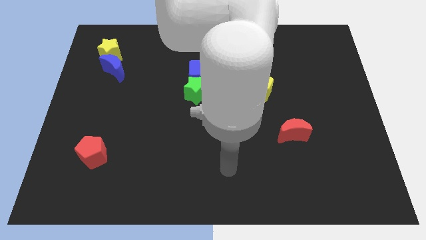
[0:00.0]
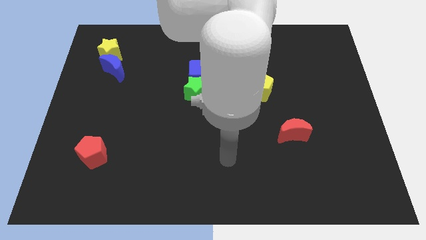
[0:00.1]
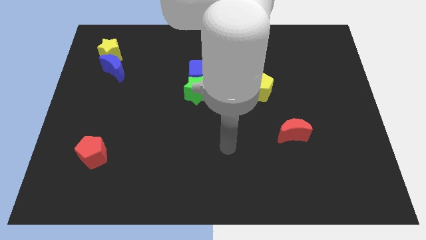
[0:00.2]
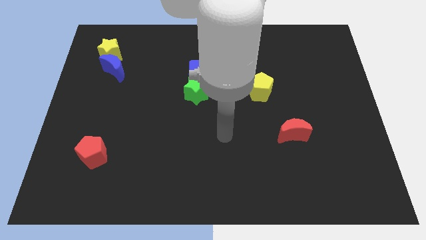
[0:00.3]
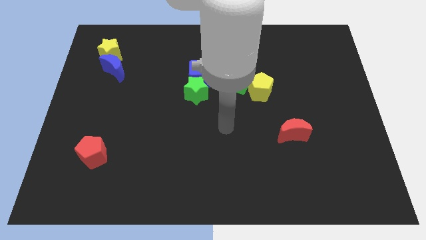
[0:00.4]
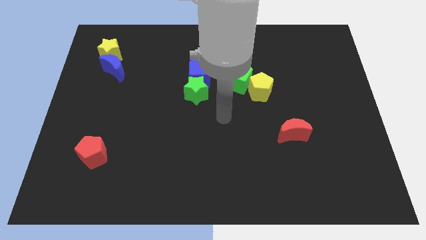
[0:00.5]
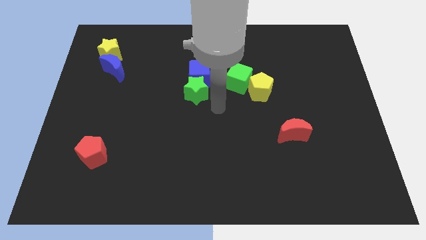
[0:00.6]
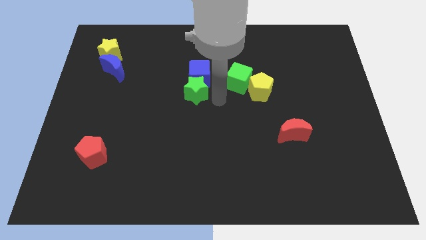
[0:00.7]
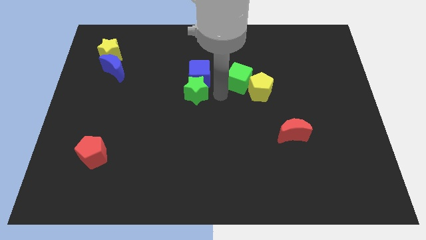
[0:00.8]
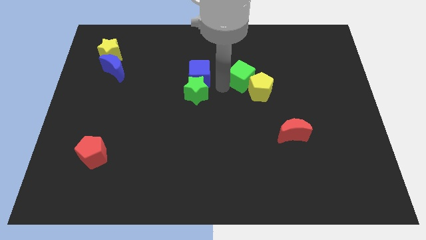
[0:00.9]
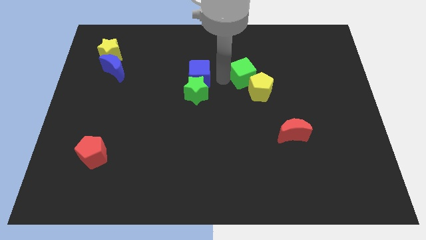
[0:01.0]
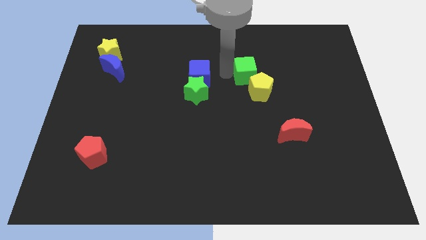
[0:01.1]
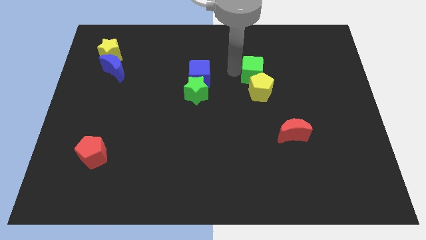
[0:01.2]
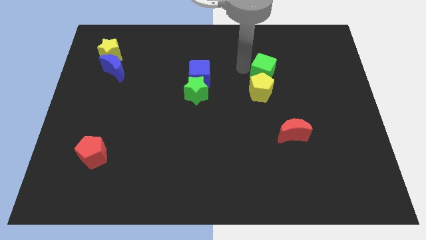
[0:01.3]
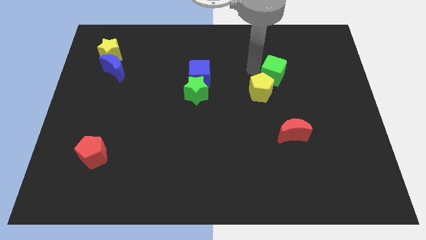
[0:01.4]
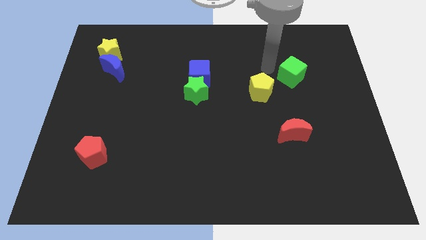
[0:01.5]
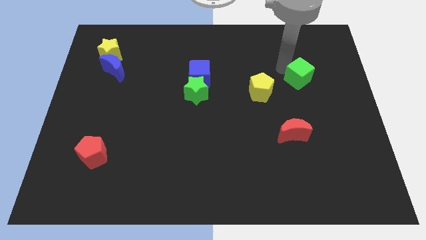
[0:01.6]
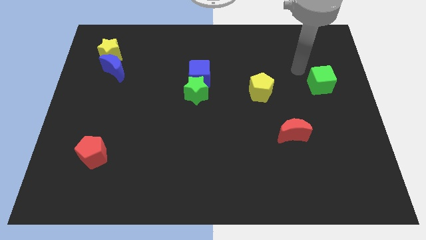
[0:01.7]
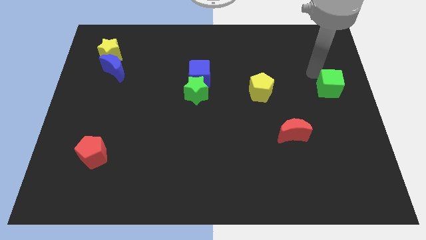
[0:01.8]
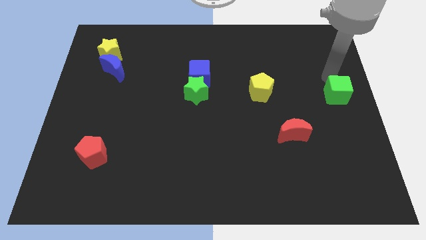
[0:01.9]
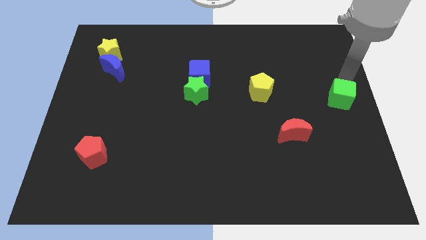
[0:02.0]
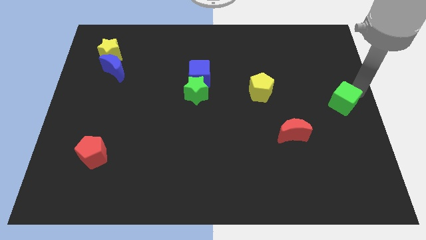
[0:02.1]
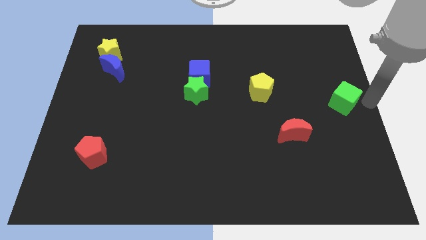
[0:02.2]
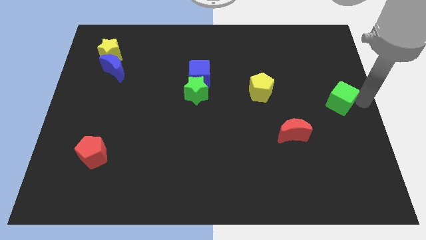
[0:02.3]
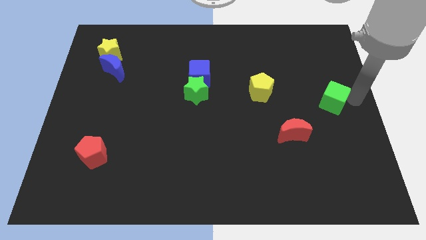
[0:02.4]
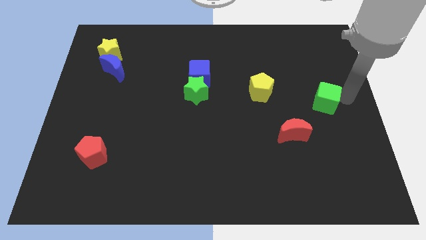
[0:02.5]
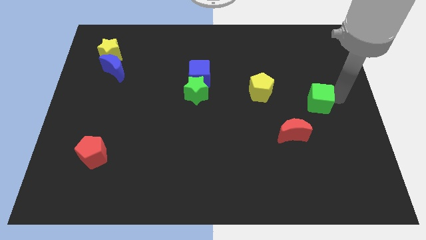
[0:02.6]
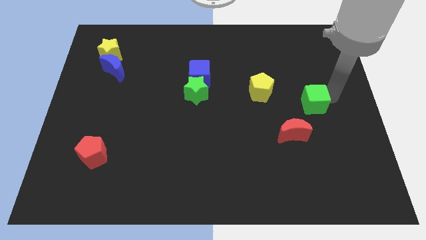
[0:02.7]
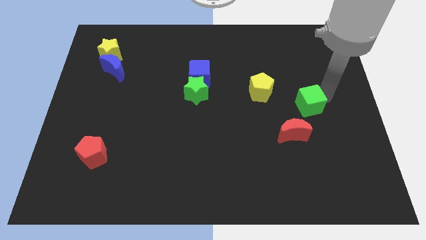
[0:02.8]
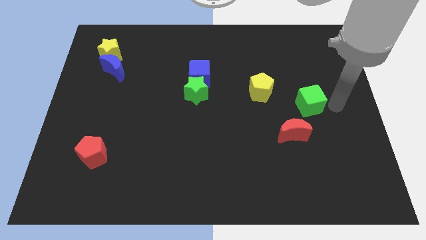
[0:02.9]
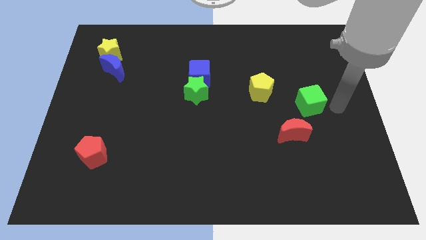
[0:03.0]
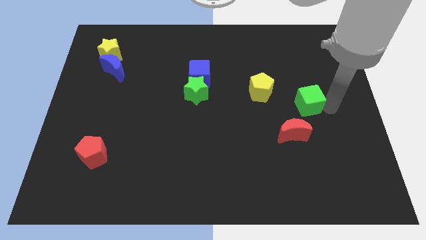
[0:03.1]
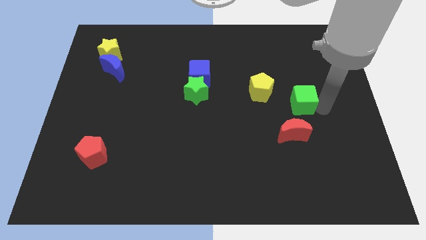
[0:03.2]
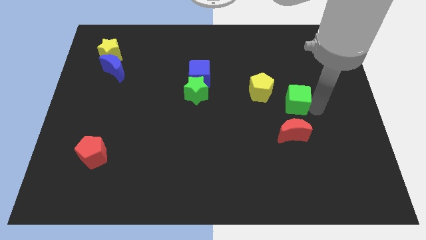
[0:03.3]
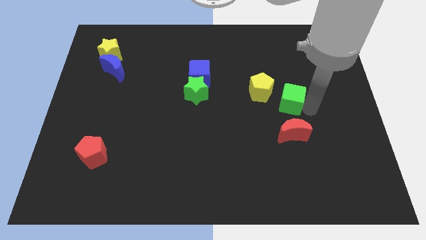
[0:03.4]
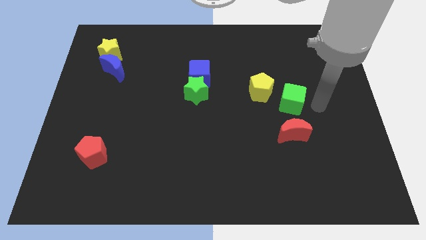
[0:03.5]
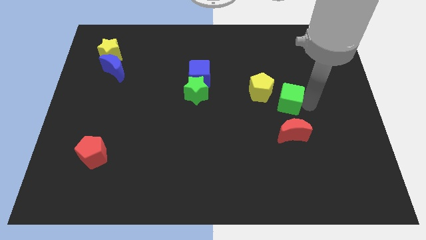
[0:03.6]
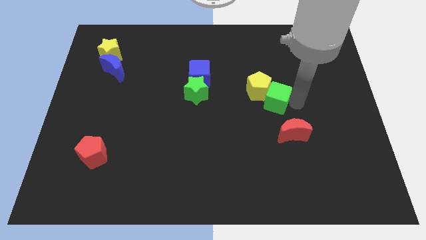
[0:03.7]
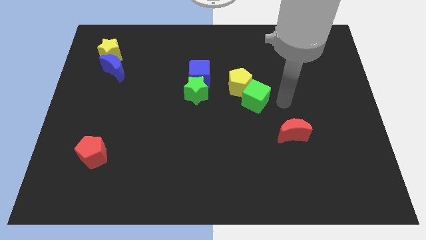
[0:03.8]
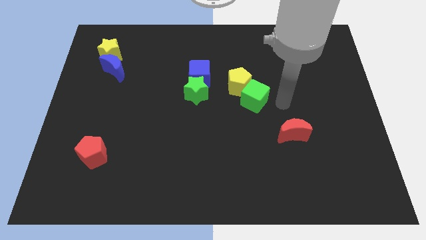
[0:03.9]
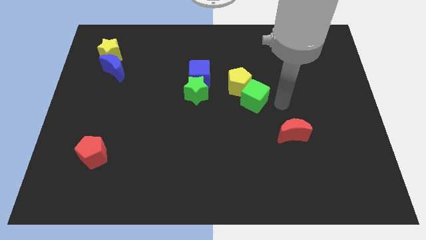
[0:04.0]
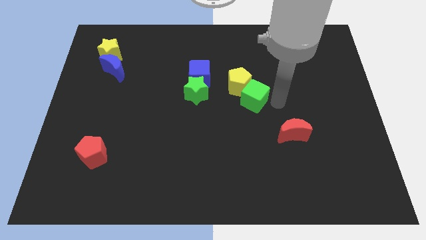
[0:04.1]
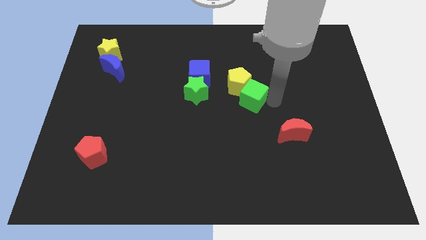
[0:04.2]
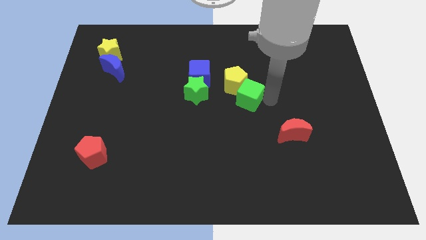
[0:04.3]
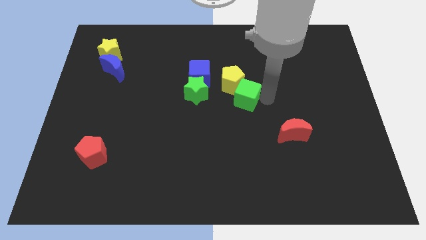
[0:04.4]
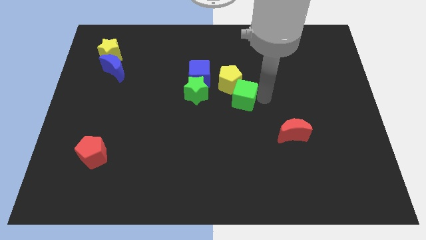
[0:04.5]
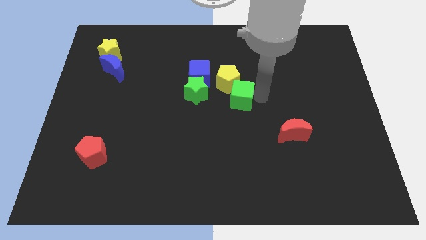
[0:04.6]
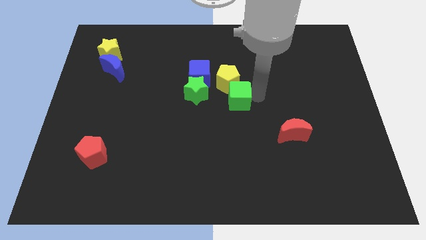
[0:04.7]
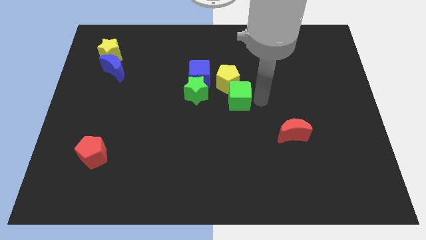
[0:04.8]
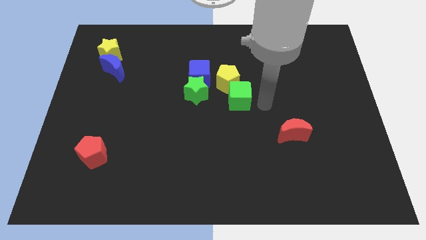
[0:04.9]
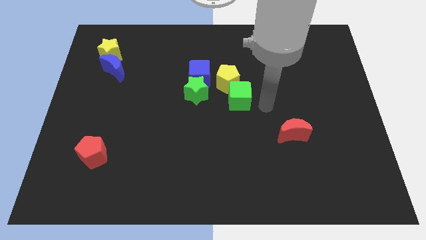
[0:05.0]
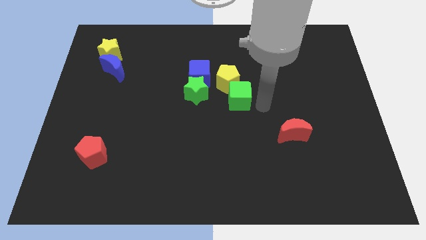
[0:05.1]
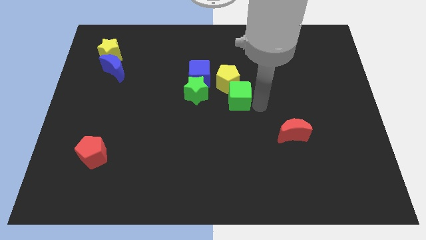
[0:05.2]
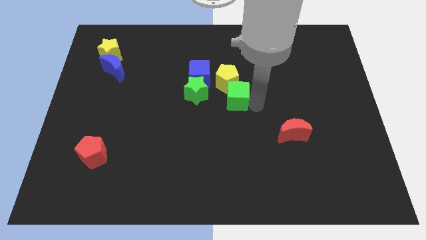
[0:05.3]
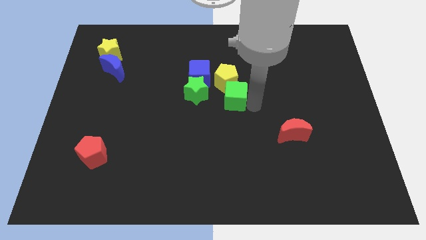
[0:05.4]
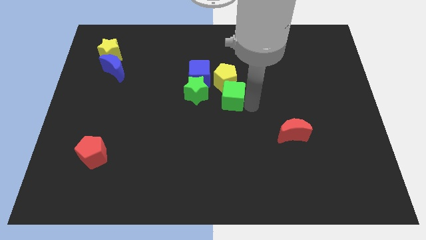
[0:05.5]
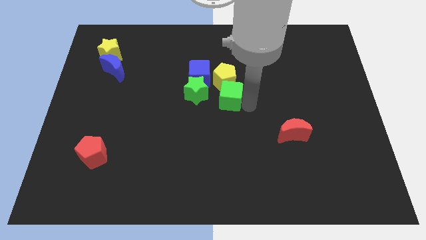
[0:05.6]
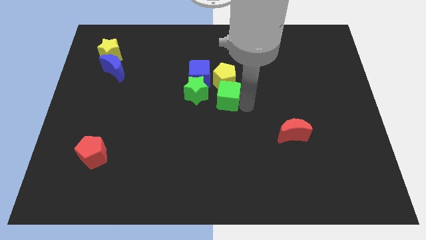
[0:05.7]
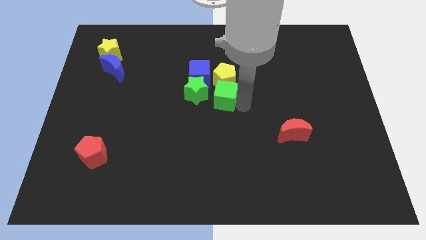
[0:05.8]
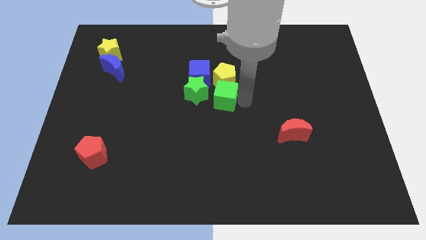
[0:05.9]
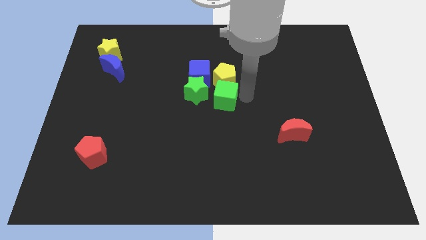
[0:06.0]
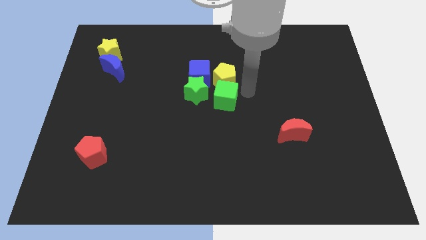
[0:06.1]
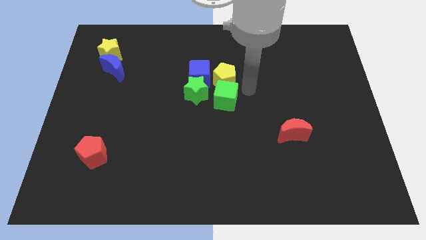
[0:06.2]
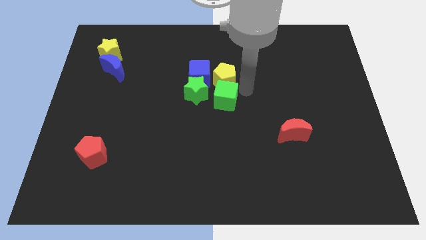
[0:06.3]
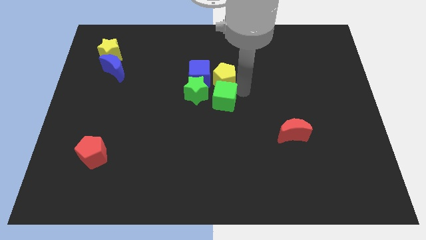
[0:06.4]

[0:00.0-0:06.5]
move the green cube down and left diagonally slightly

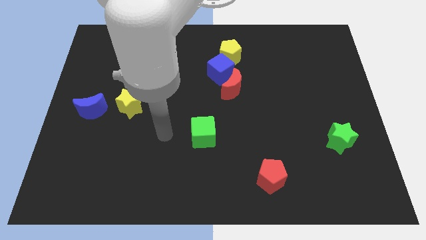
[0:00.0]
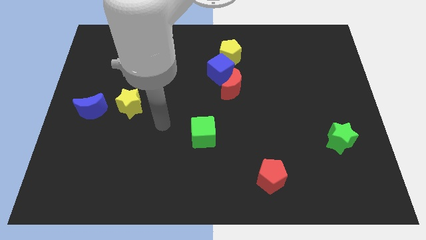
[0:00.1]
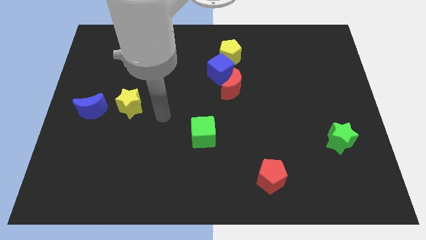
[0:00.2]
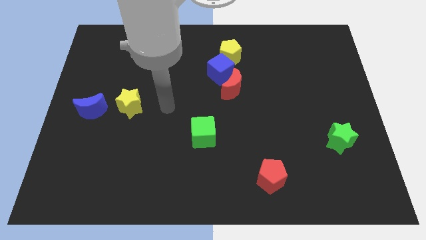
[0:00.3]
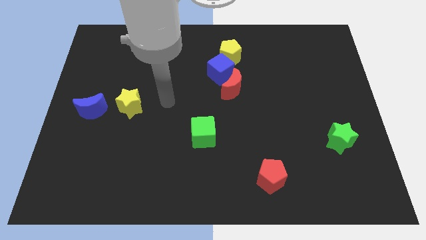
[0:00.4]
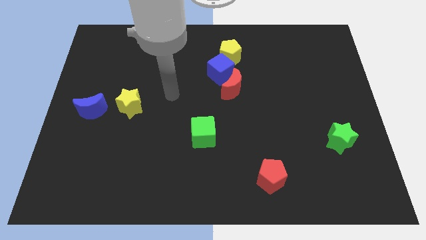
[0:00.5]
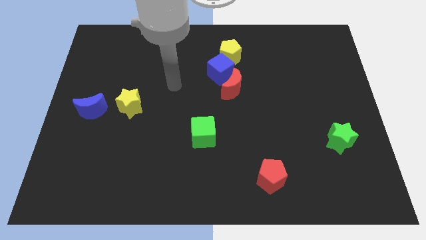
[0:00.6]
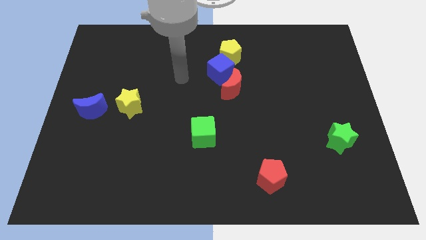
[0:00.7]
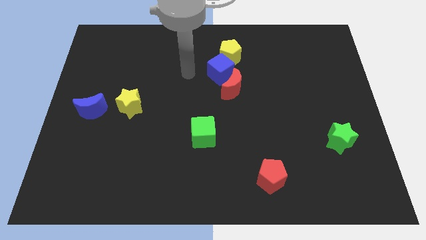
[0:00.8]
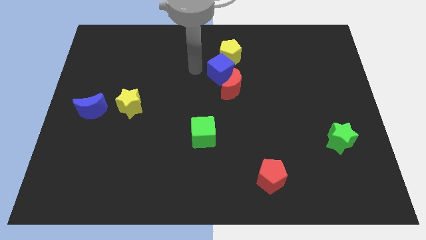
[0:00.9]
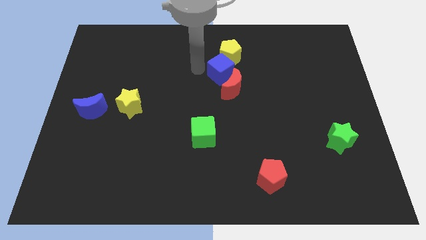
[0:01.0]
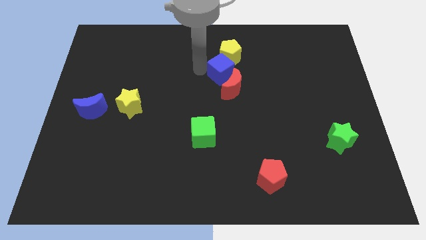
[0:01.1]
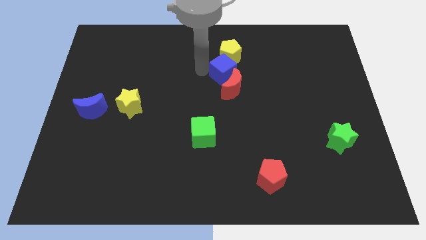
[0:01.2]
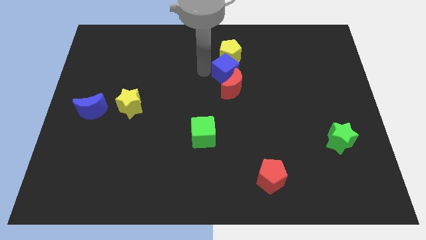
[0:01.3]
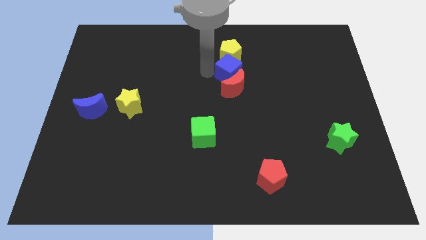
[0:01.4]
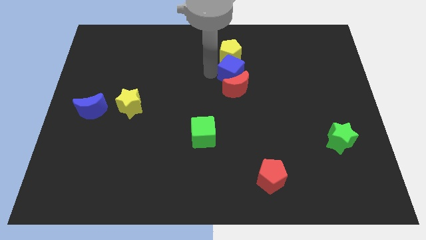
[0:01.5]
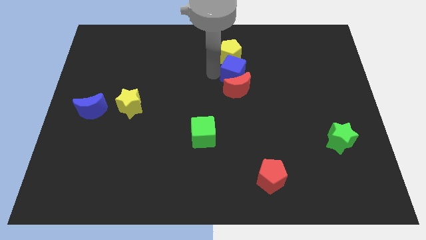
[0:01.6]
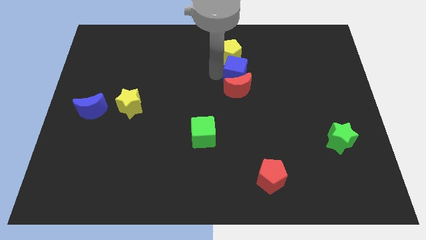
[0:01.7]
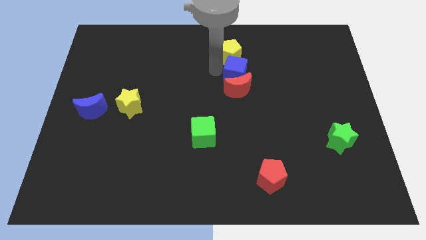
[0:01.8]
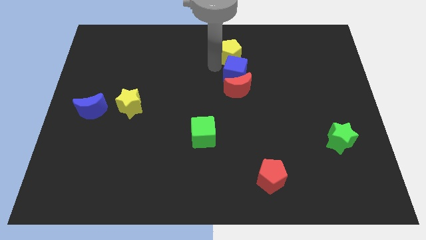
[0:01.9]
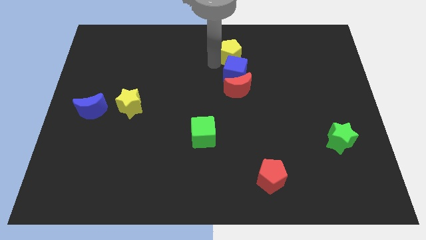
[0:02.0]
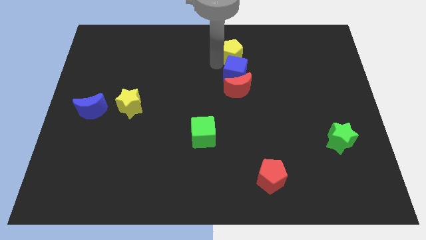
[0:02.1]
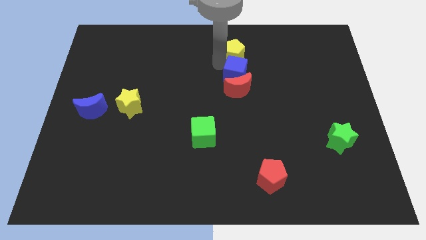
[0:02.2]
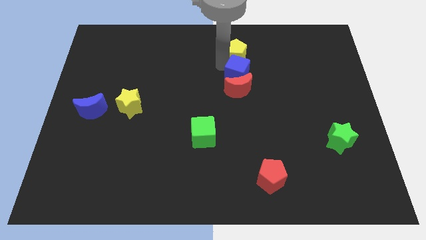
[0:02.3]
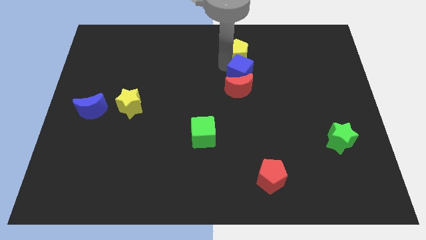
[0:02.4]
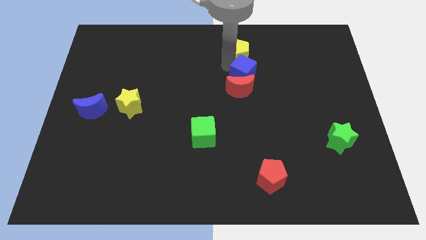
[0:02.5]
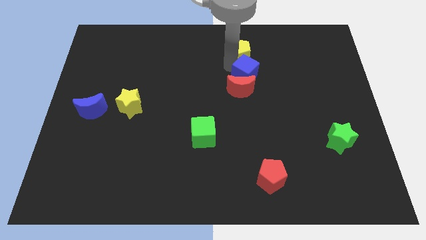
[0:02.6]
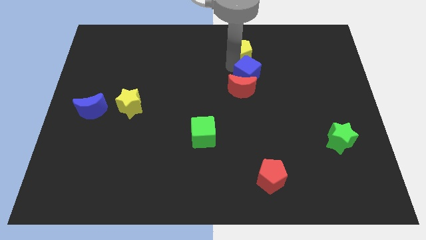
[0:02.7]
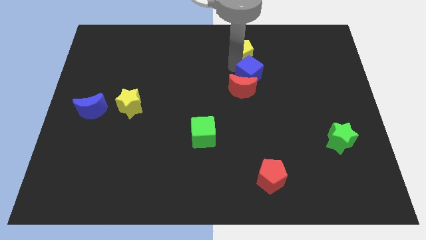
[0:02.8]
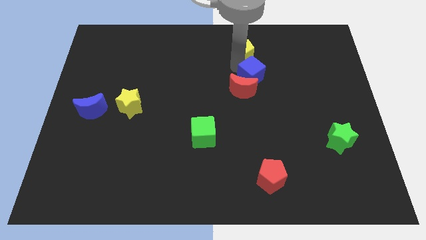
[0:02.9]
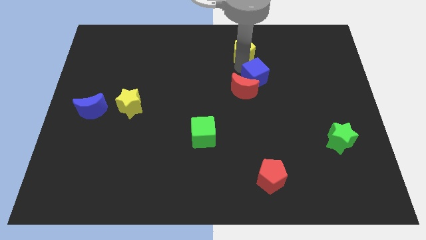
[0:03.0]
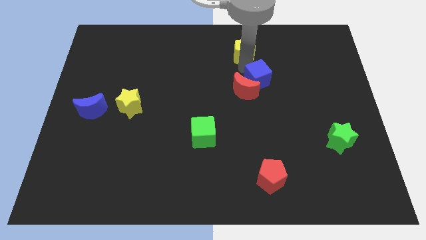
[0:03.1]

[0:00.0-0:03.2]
slightly slide the blue cube down and then right
